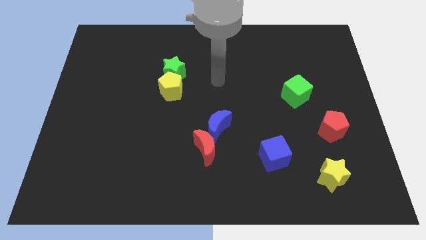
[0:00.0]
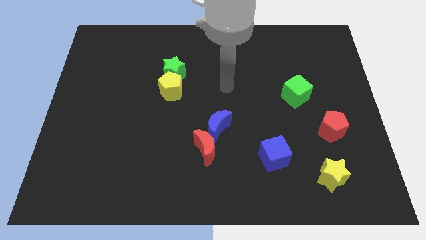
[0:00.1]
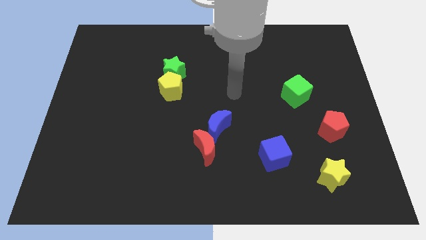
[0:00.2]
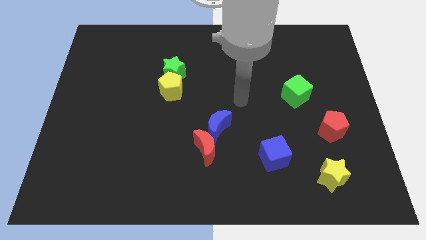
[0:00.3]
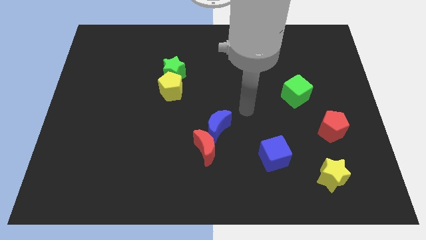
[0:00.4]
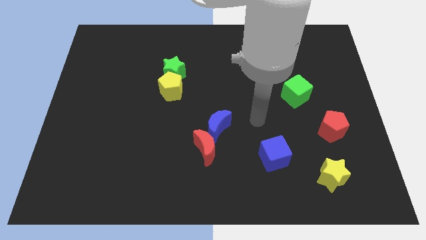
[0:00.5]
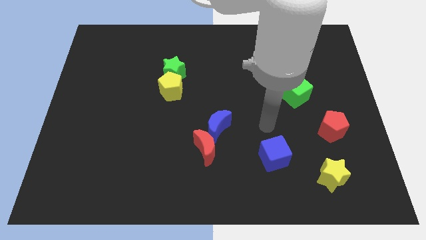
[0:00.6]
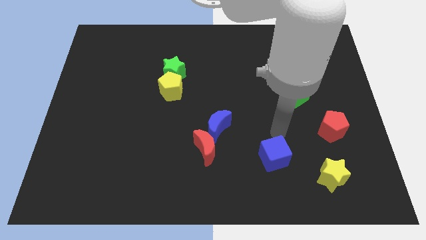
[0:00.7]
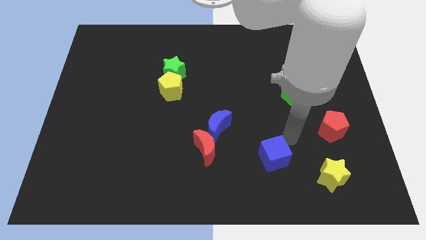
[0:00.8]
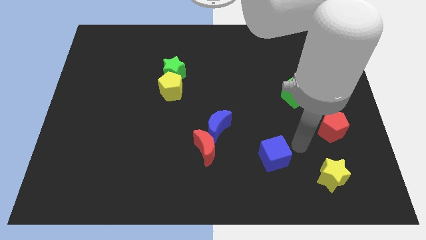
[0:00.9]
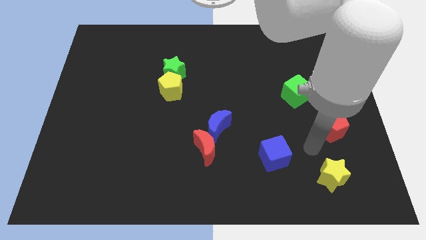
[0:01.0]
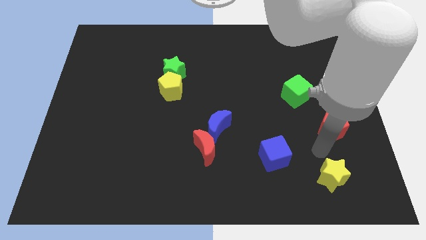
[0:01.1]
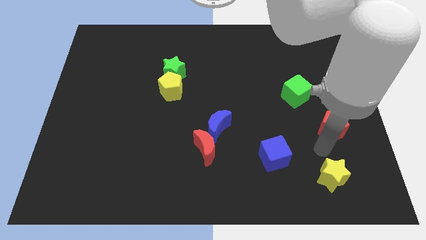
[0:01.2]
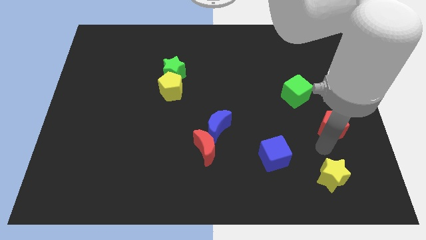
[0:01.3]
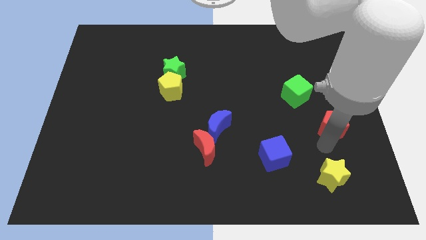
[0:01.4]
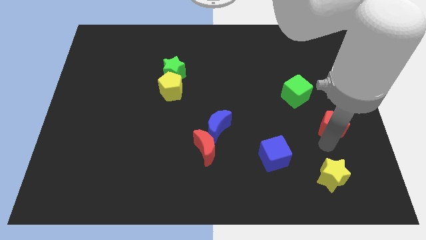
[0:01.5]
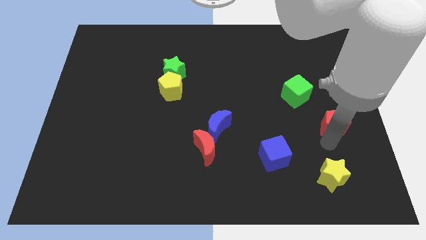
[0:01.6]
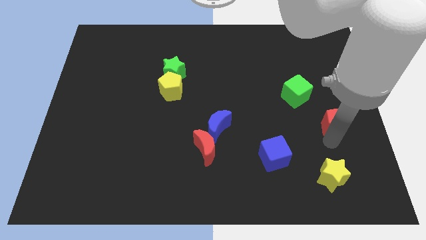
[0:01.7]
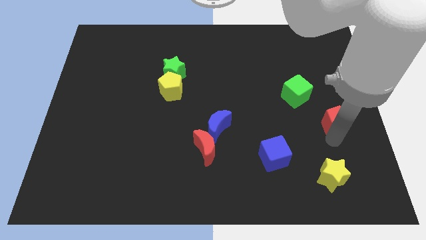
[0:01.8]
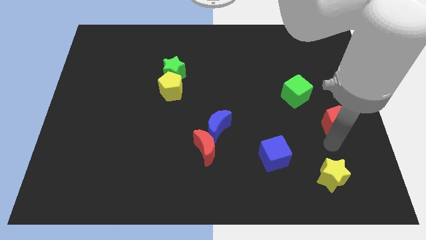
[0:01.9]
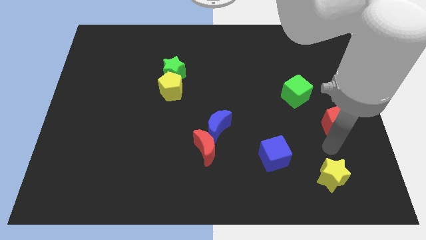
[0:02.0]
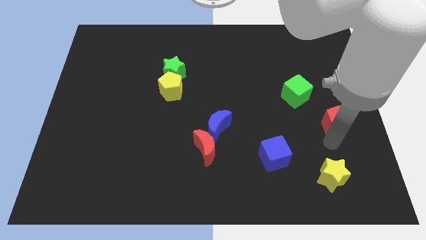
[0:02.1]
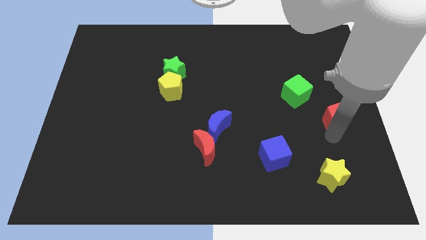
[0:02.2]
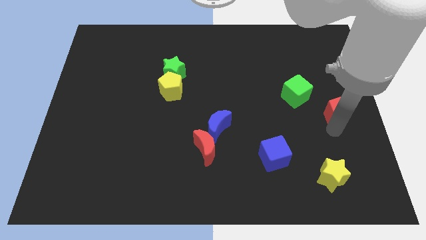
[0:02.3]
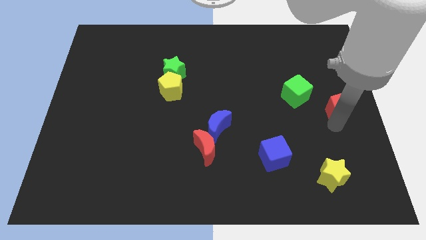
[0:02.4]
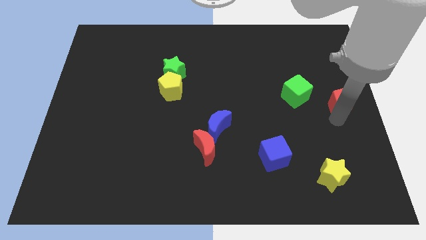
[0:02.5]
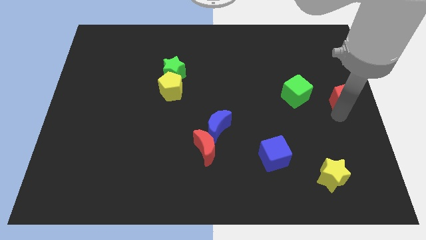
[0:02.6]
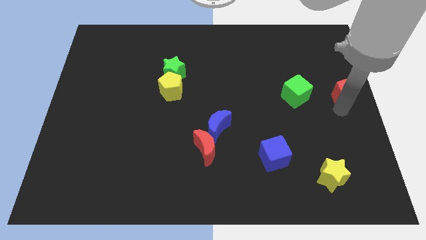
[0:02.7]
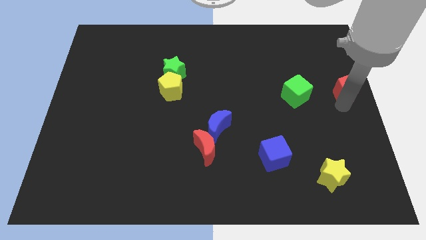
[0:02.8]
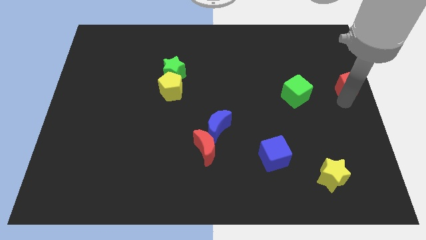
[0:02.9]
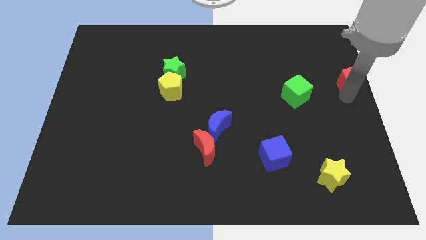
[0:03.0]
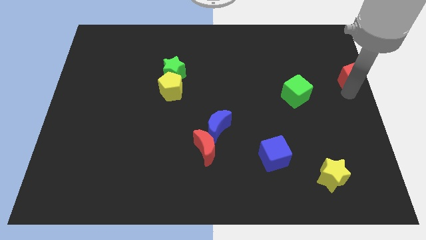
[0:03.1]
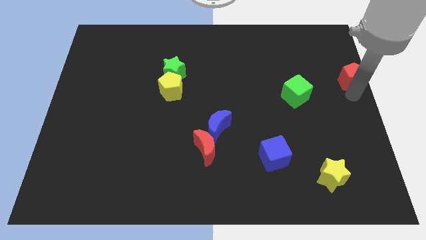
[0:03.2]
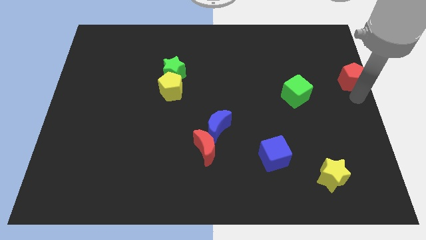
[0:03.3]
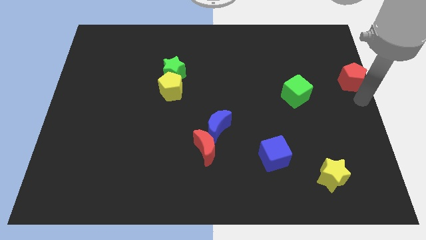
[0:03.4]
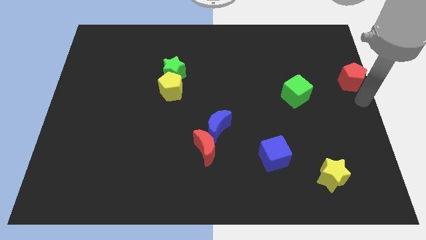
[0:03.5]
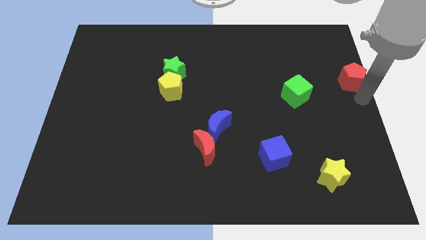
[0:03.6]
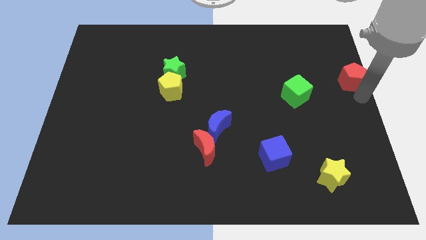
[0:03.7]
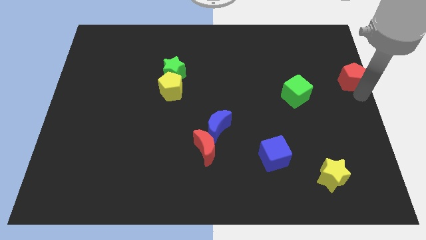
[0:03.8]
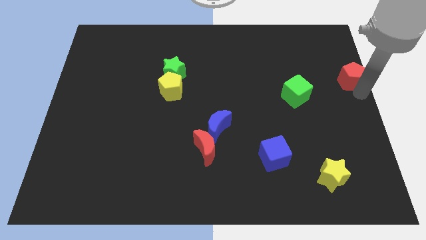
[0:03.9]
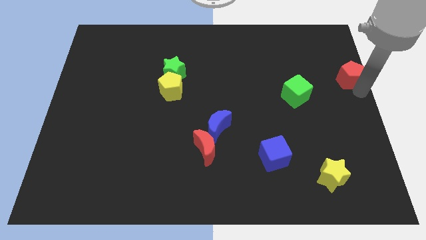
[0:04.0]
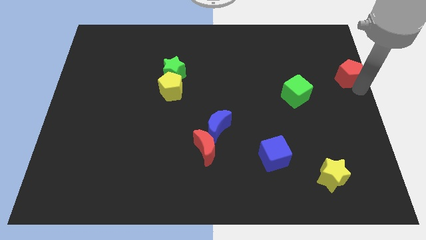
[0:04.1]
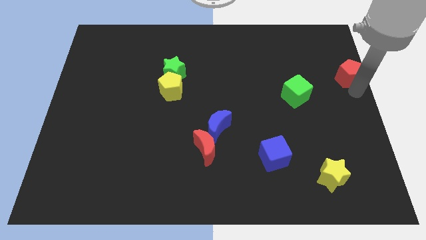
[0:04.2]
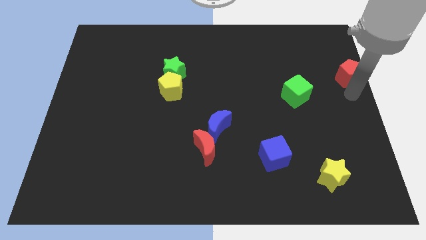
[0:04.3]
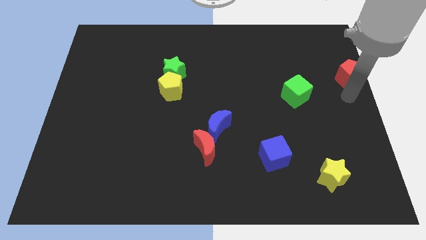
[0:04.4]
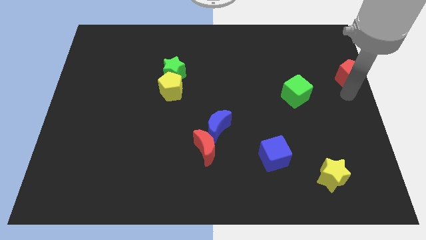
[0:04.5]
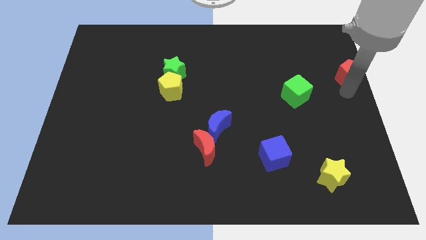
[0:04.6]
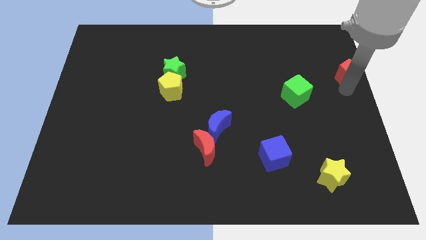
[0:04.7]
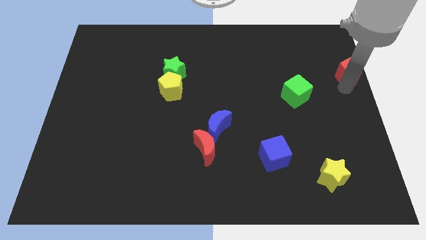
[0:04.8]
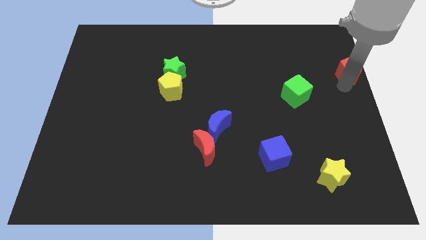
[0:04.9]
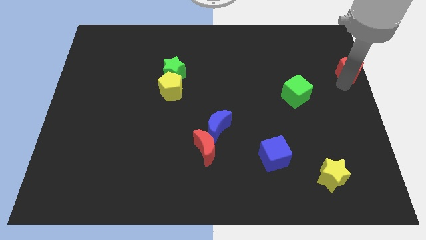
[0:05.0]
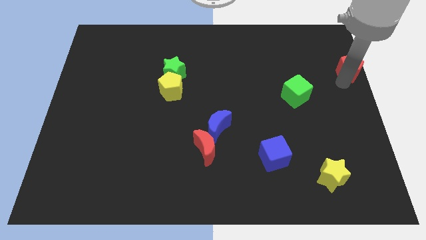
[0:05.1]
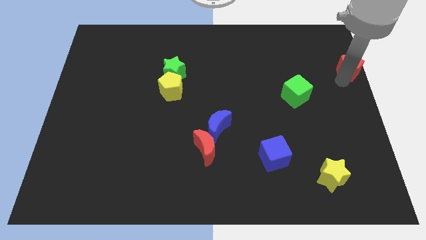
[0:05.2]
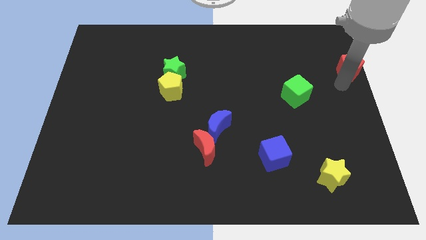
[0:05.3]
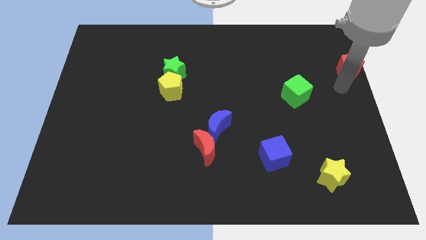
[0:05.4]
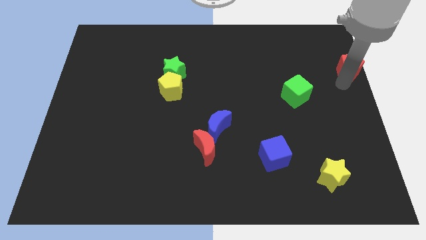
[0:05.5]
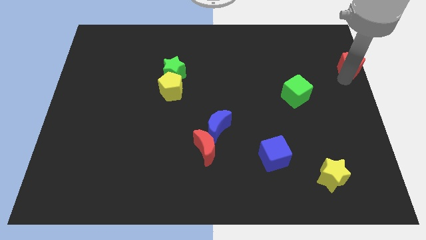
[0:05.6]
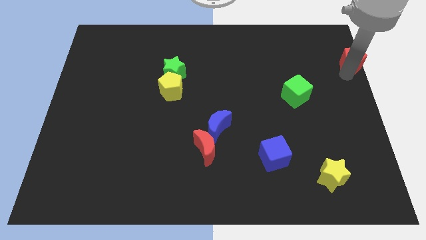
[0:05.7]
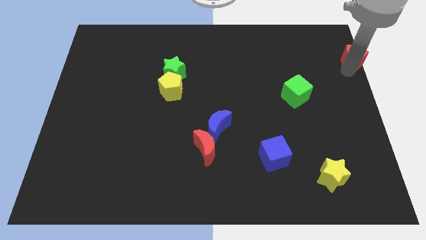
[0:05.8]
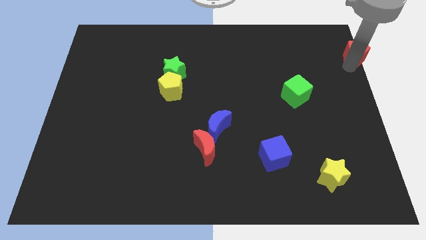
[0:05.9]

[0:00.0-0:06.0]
slide the red pentagon to the top right corner

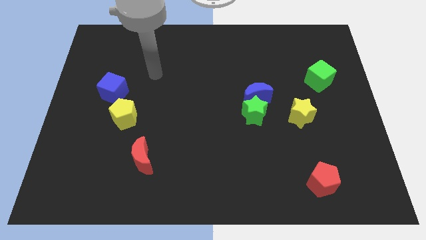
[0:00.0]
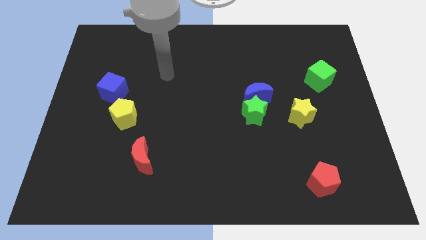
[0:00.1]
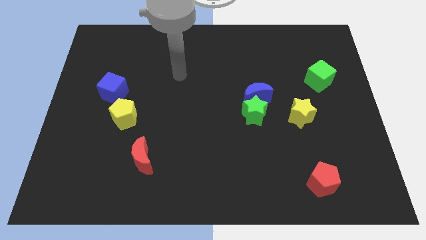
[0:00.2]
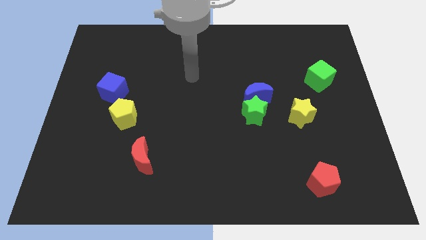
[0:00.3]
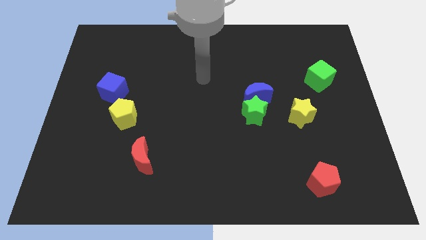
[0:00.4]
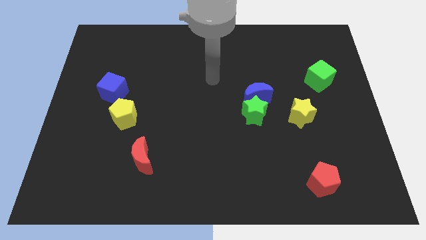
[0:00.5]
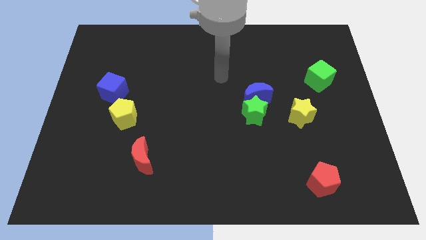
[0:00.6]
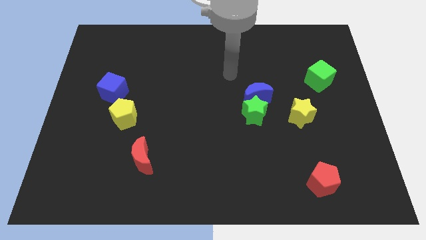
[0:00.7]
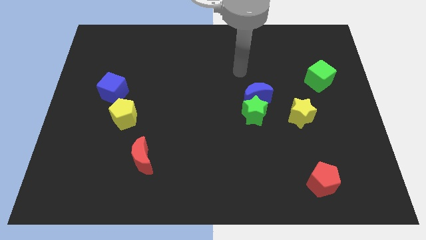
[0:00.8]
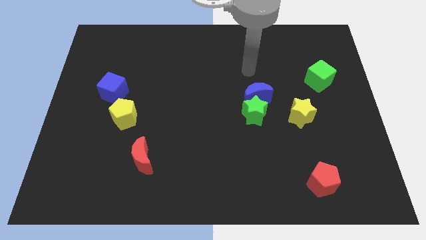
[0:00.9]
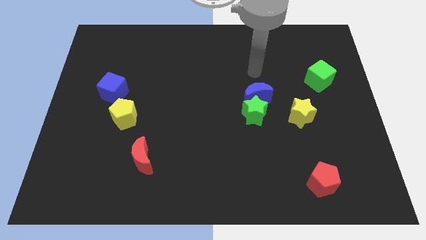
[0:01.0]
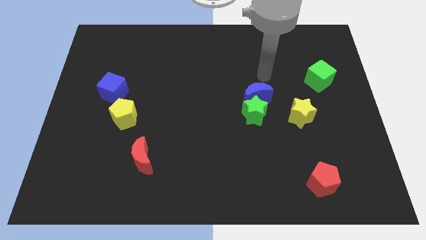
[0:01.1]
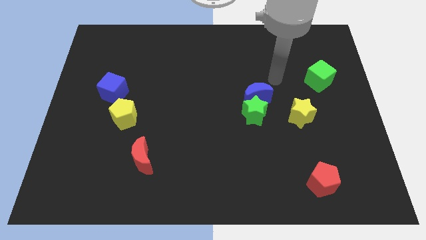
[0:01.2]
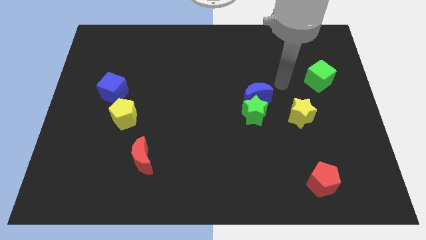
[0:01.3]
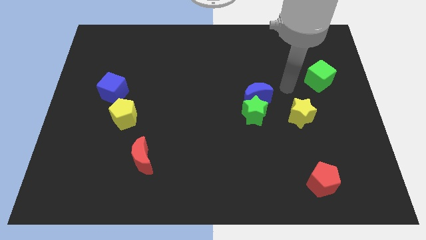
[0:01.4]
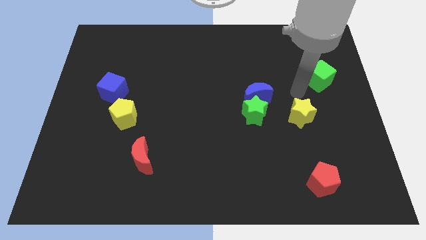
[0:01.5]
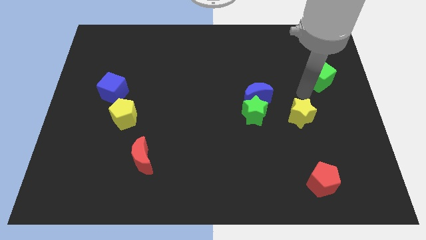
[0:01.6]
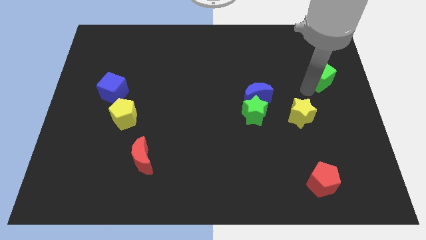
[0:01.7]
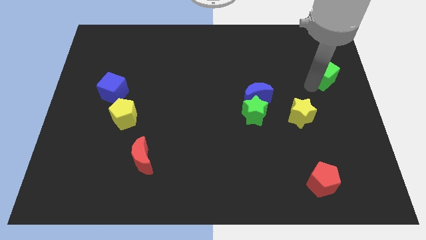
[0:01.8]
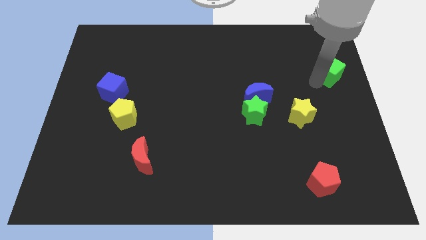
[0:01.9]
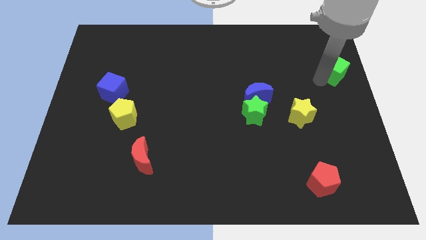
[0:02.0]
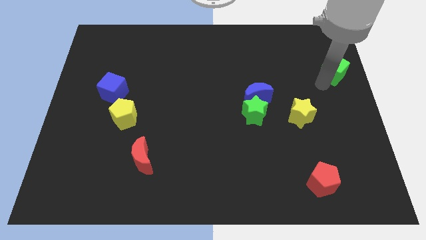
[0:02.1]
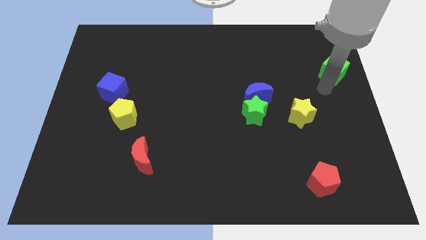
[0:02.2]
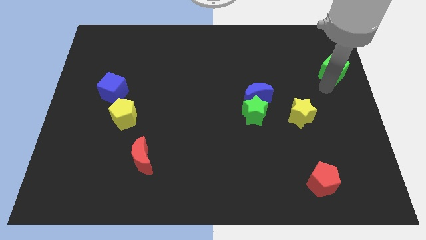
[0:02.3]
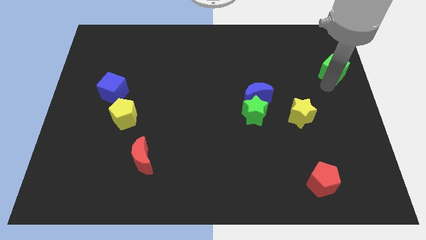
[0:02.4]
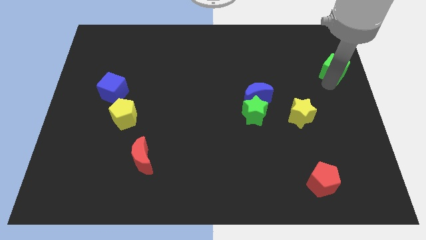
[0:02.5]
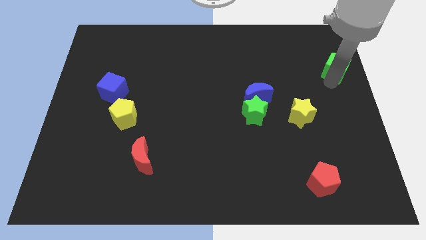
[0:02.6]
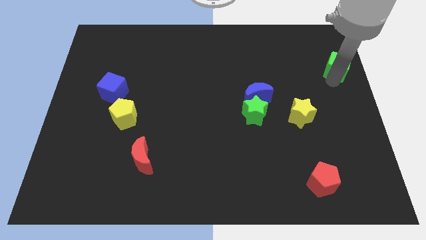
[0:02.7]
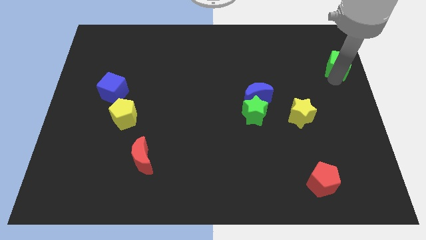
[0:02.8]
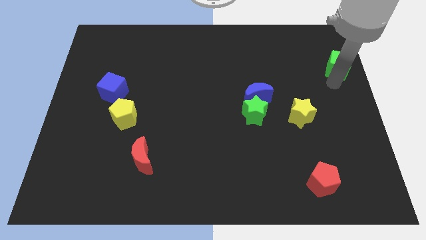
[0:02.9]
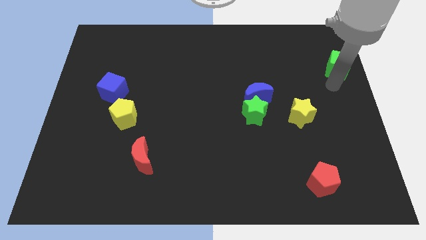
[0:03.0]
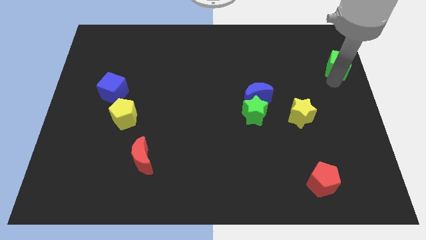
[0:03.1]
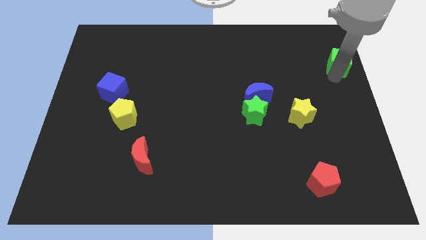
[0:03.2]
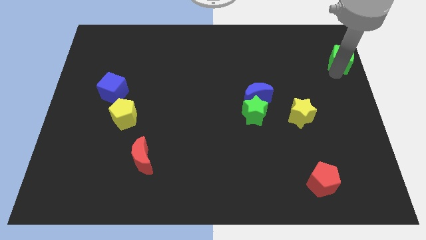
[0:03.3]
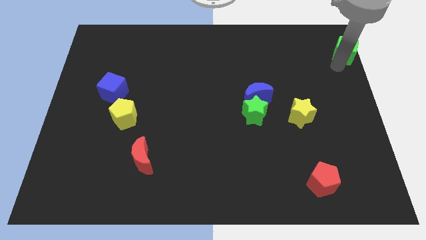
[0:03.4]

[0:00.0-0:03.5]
put the green cube to the upper right corner
